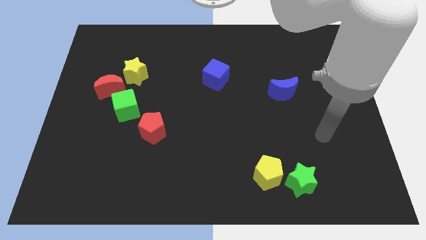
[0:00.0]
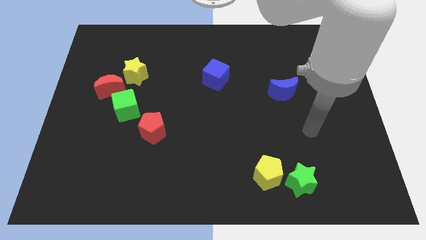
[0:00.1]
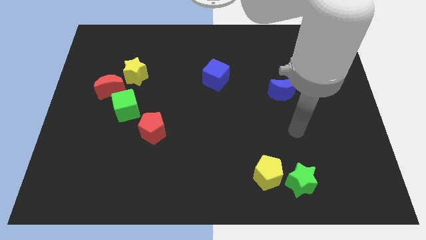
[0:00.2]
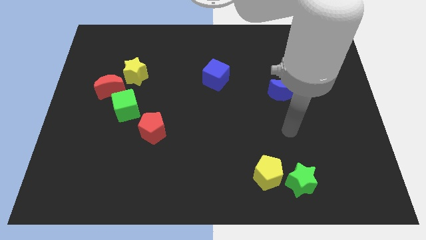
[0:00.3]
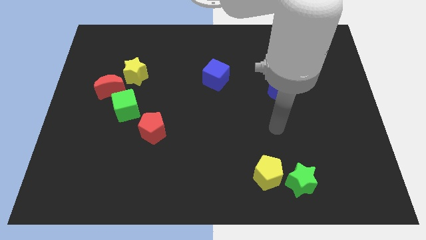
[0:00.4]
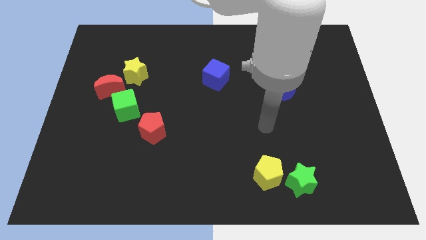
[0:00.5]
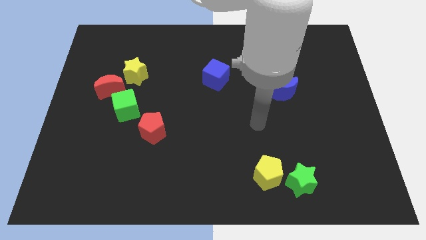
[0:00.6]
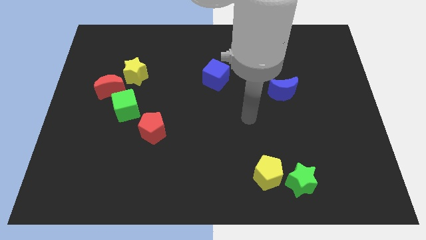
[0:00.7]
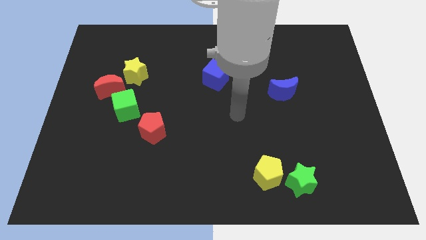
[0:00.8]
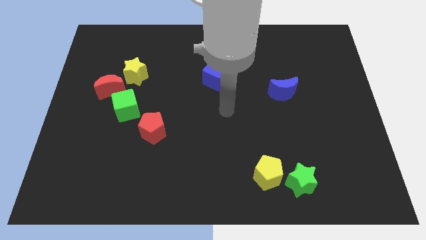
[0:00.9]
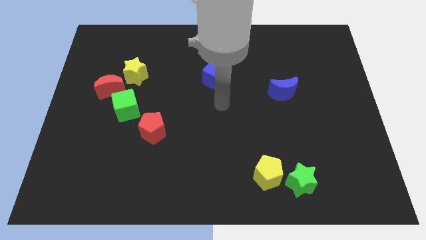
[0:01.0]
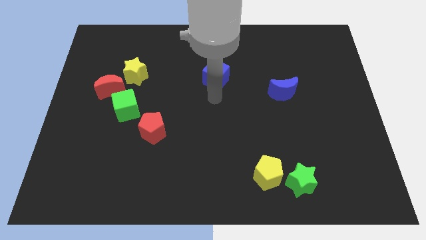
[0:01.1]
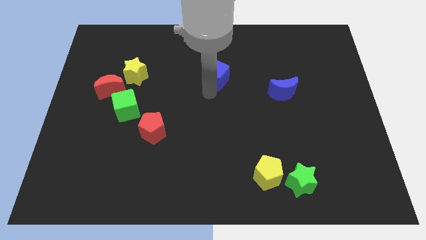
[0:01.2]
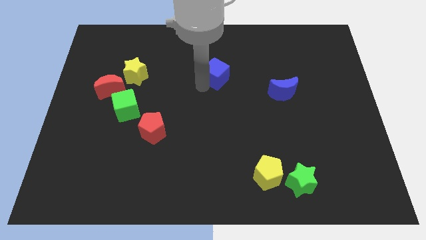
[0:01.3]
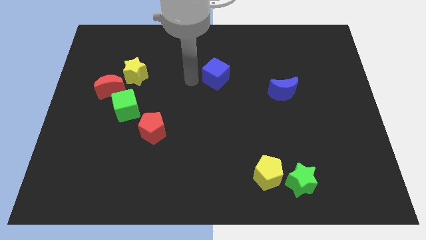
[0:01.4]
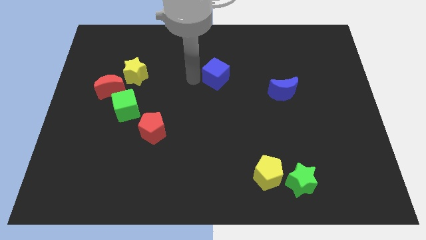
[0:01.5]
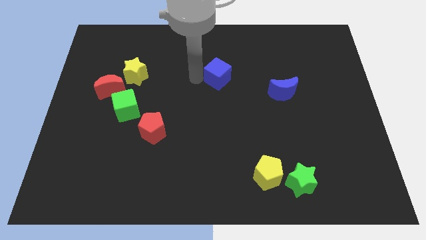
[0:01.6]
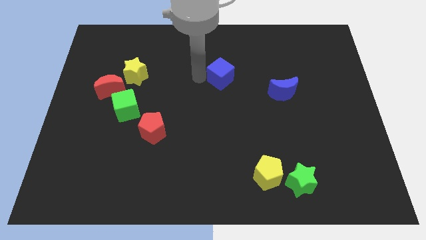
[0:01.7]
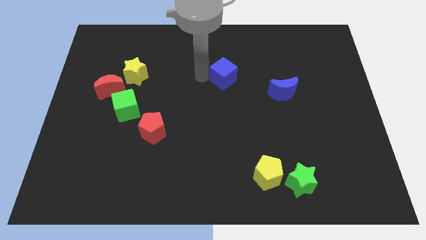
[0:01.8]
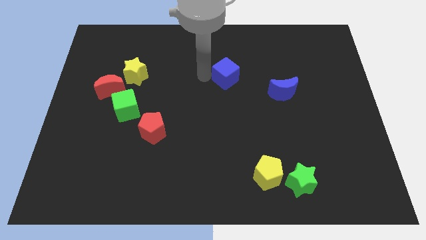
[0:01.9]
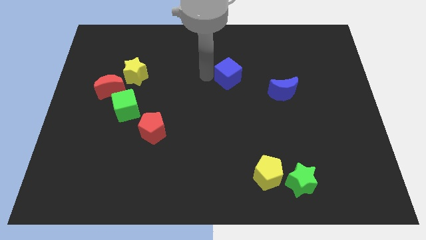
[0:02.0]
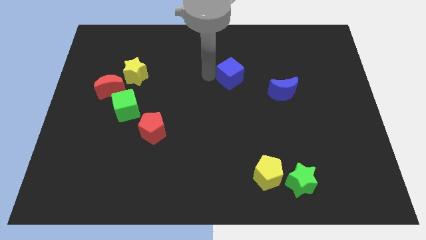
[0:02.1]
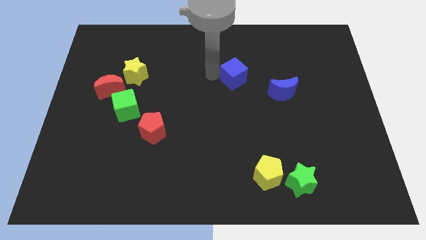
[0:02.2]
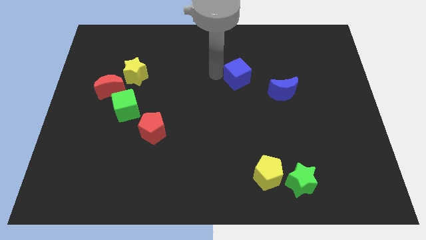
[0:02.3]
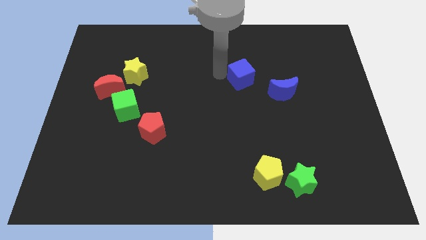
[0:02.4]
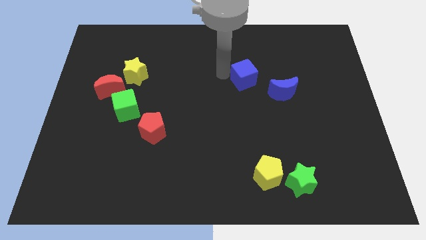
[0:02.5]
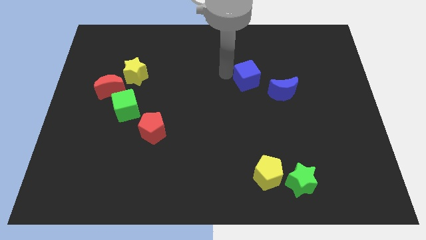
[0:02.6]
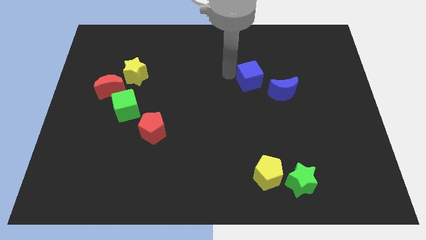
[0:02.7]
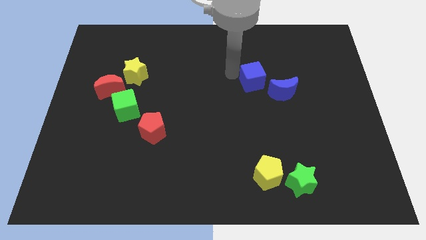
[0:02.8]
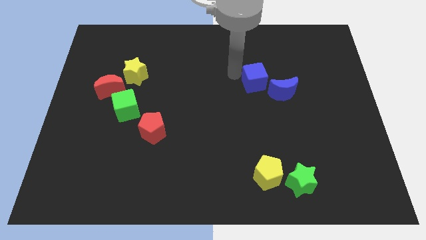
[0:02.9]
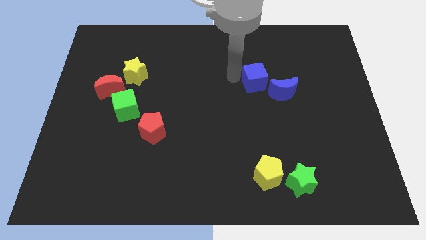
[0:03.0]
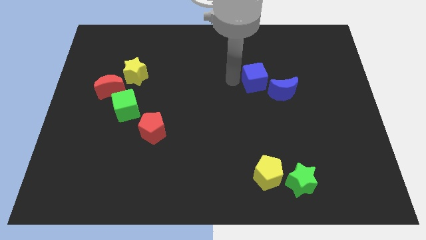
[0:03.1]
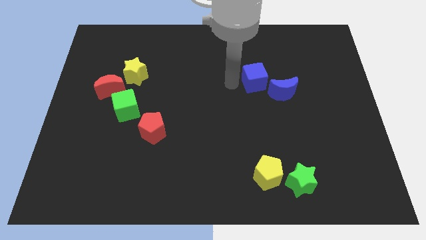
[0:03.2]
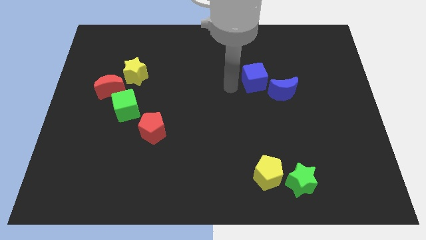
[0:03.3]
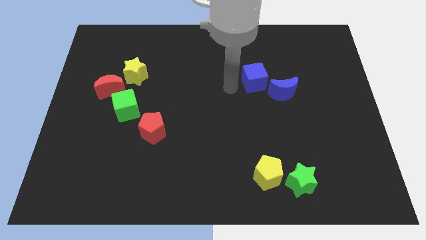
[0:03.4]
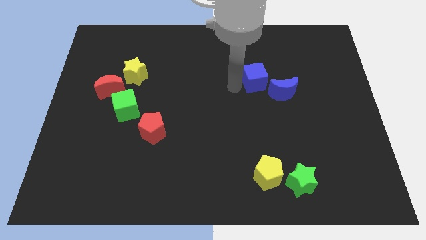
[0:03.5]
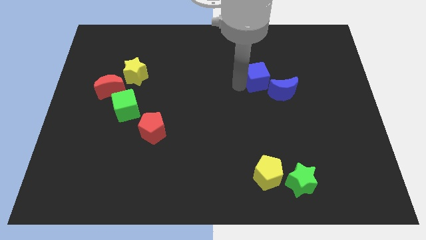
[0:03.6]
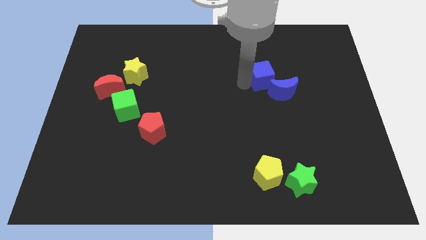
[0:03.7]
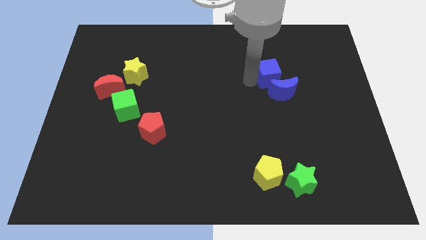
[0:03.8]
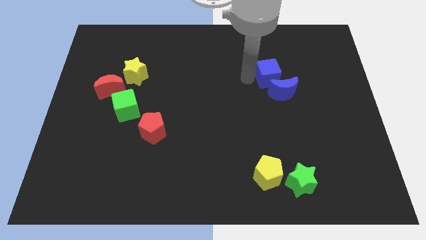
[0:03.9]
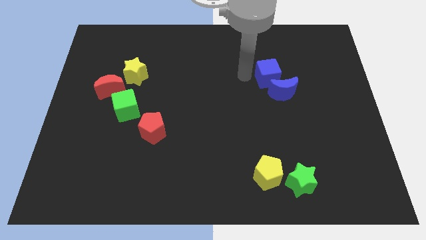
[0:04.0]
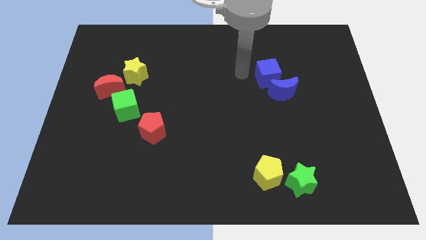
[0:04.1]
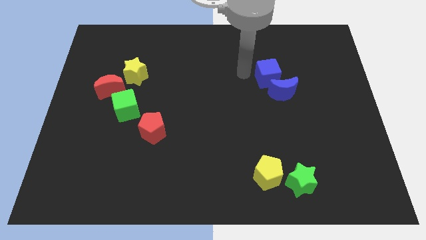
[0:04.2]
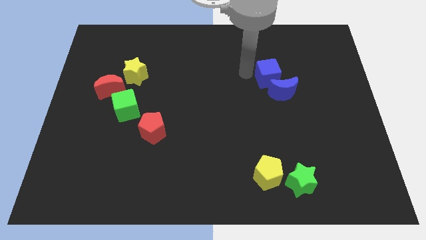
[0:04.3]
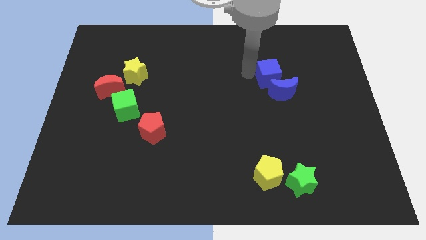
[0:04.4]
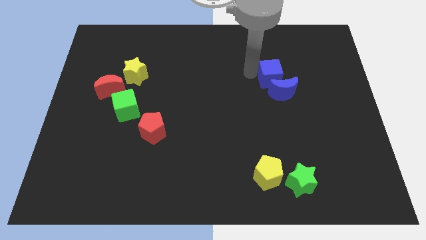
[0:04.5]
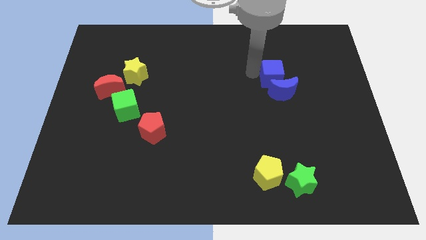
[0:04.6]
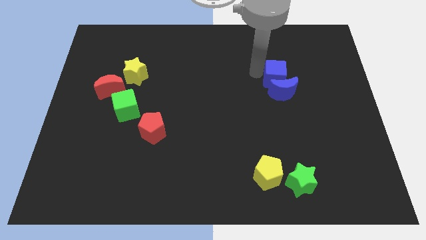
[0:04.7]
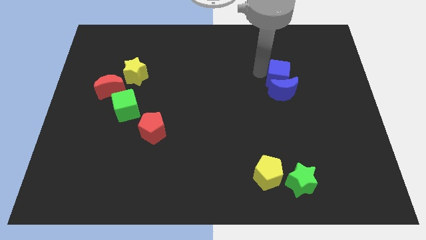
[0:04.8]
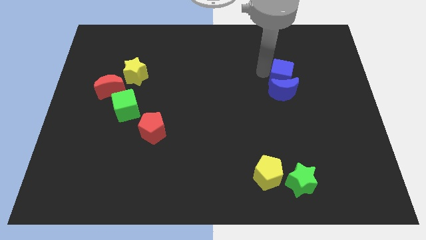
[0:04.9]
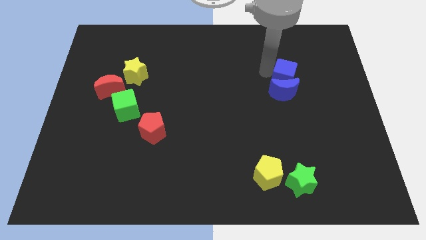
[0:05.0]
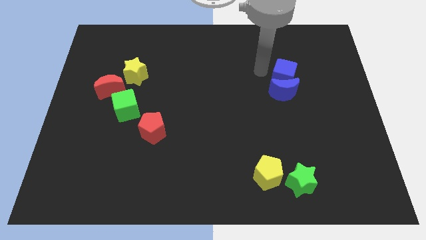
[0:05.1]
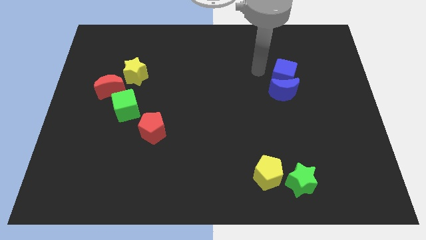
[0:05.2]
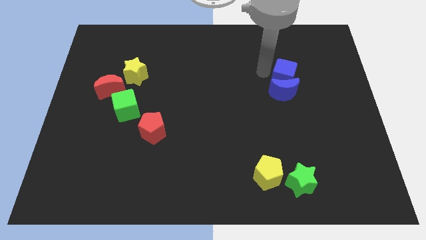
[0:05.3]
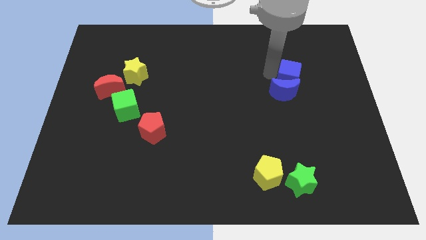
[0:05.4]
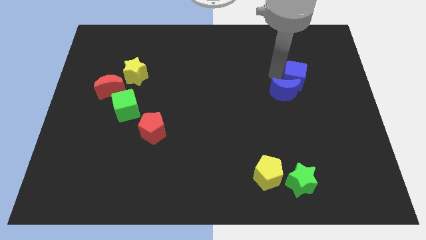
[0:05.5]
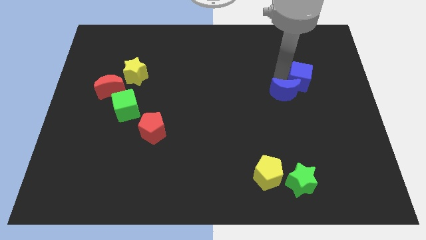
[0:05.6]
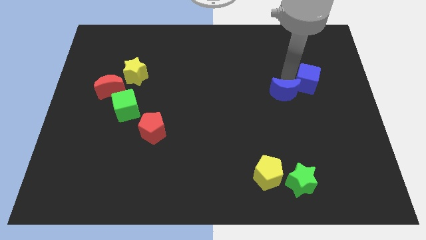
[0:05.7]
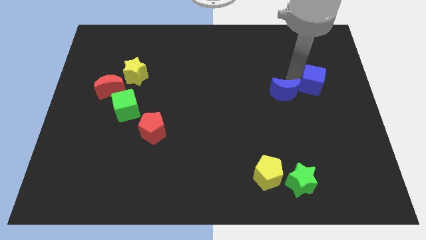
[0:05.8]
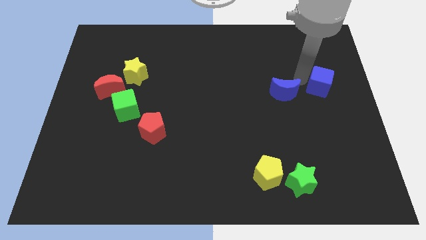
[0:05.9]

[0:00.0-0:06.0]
push the blue cube to the center right

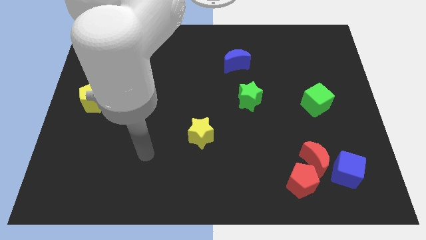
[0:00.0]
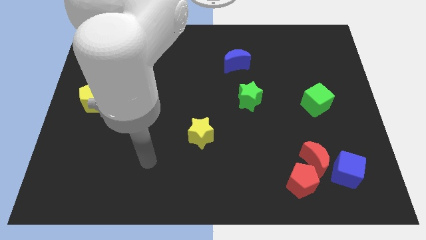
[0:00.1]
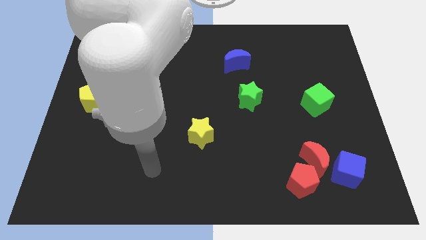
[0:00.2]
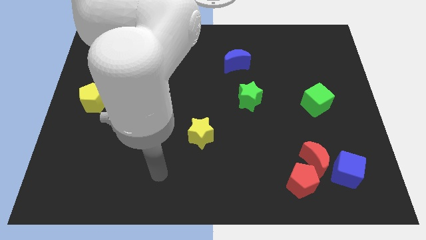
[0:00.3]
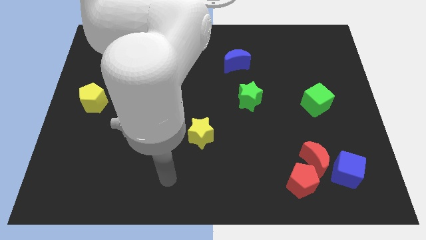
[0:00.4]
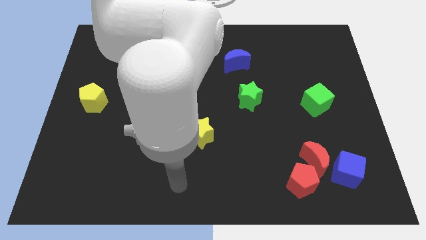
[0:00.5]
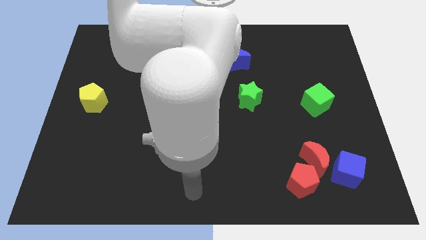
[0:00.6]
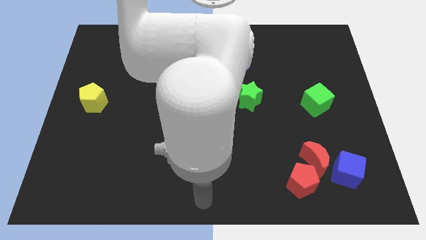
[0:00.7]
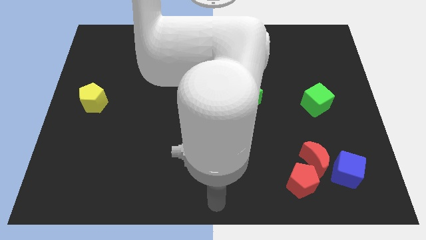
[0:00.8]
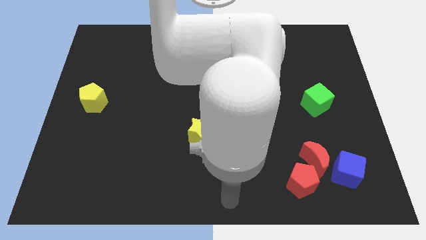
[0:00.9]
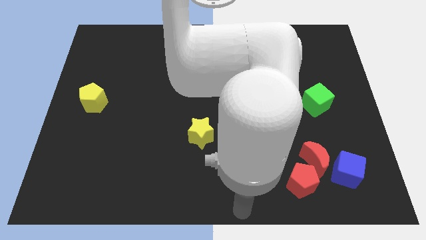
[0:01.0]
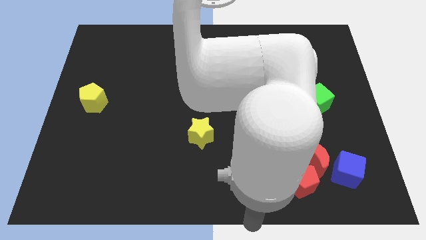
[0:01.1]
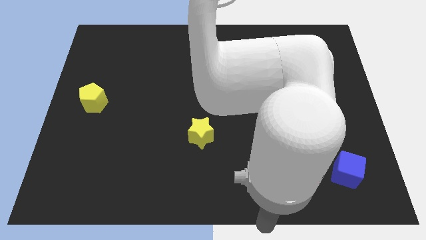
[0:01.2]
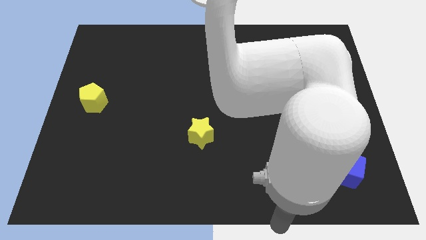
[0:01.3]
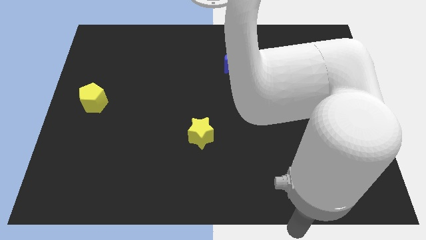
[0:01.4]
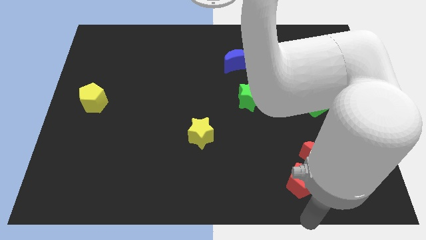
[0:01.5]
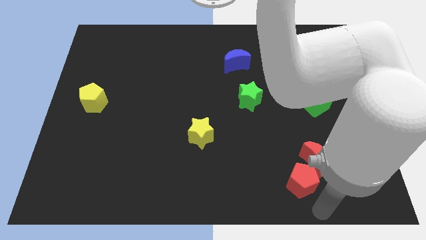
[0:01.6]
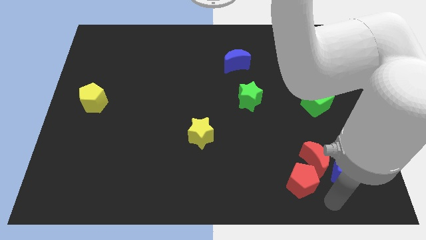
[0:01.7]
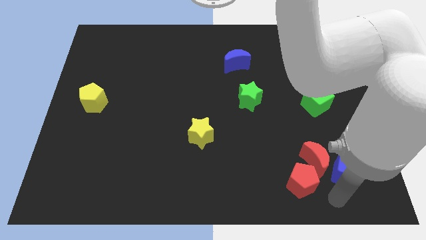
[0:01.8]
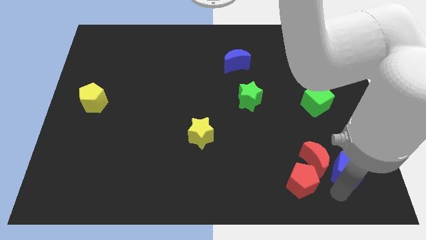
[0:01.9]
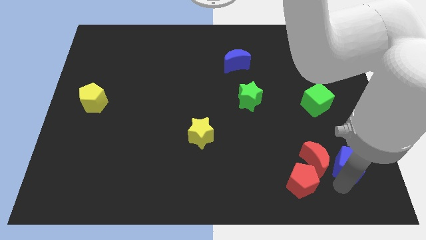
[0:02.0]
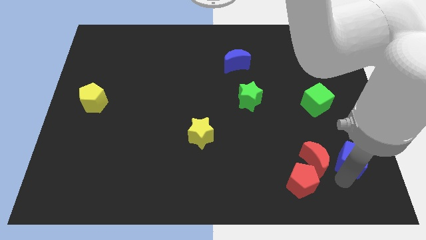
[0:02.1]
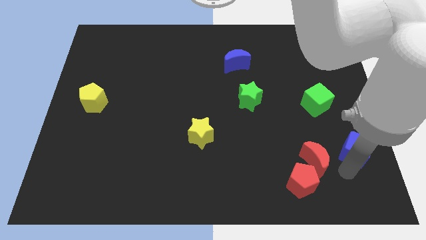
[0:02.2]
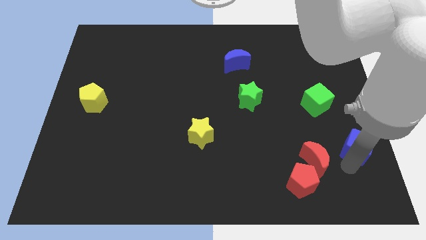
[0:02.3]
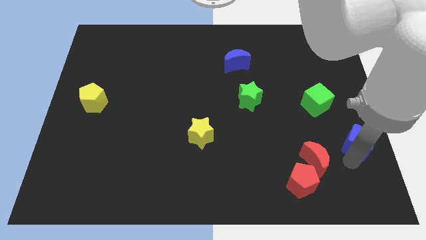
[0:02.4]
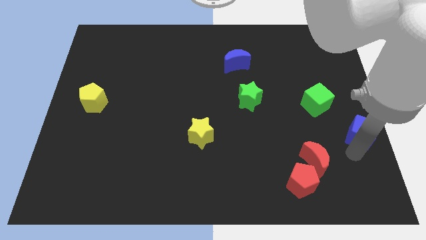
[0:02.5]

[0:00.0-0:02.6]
slide the blue cube to the right side
